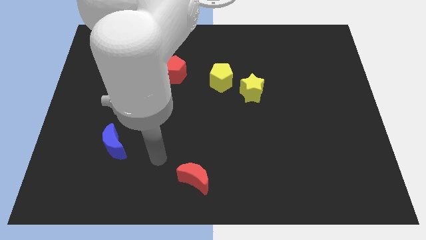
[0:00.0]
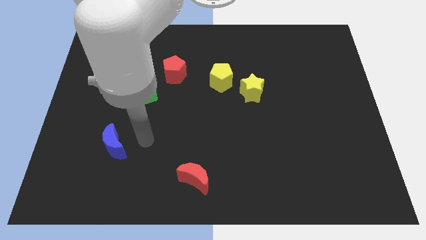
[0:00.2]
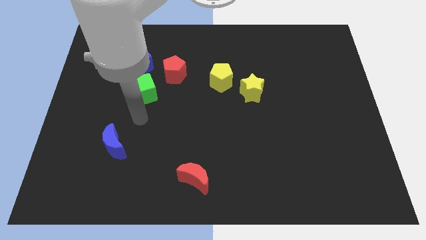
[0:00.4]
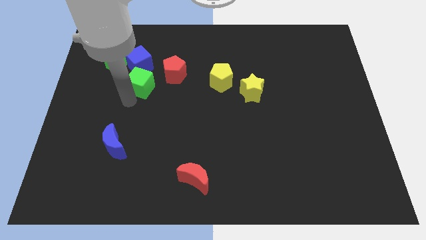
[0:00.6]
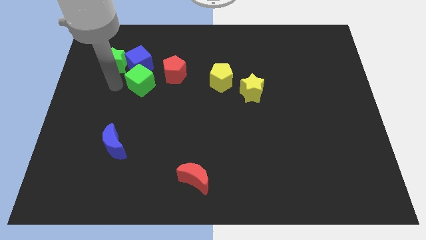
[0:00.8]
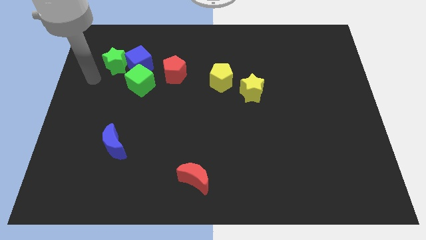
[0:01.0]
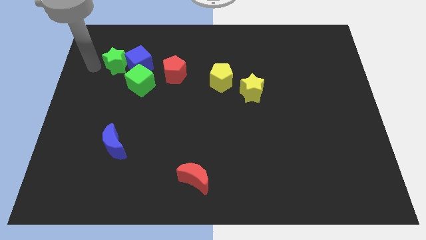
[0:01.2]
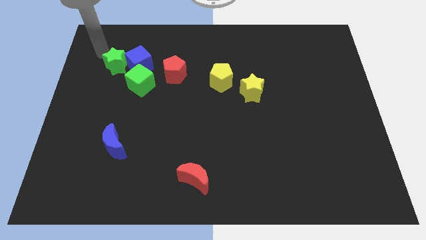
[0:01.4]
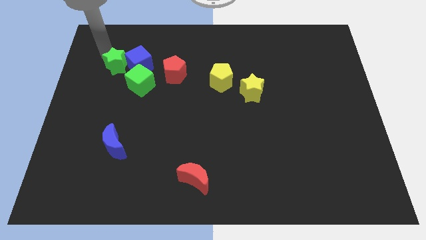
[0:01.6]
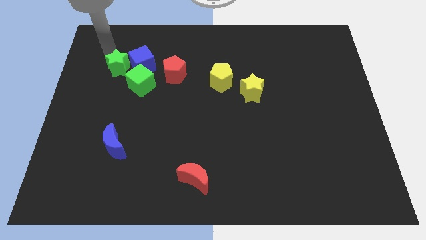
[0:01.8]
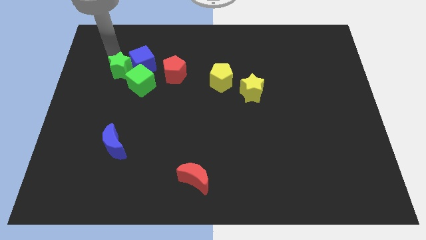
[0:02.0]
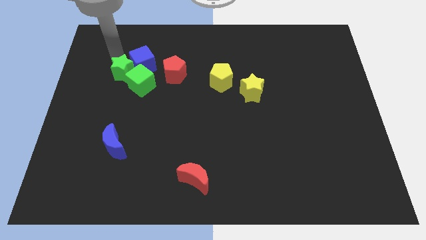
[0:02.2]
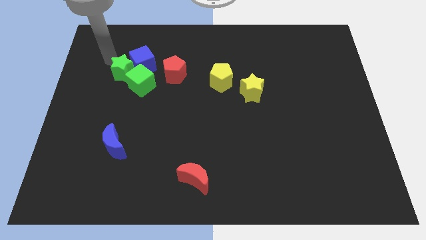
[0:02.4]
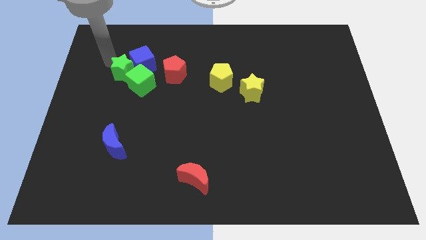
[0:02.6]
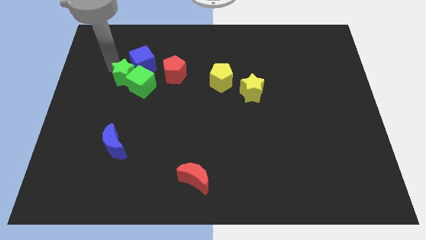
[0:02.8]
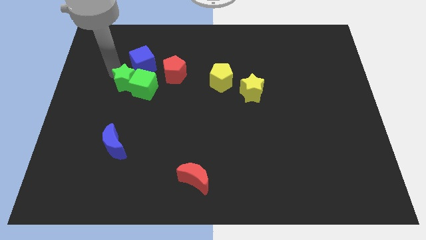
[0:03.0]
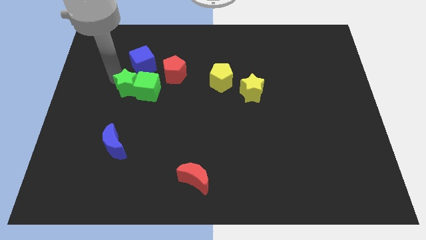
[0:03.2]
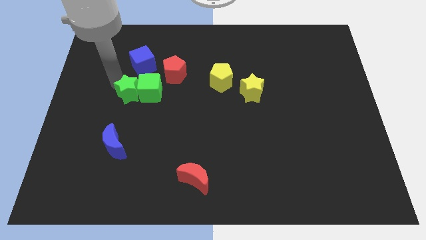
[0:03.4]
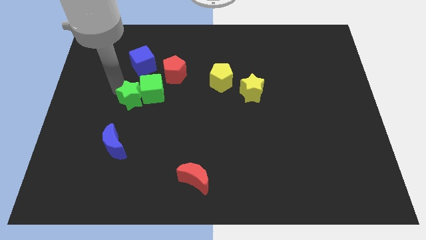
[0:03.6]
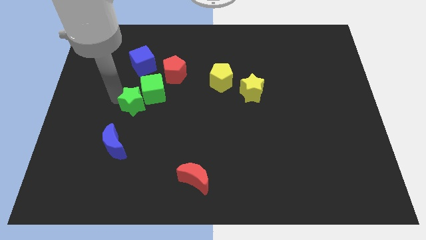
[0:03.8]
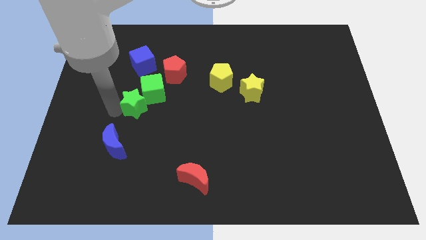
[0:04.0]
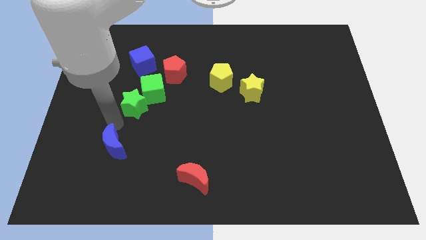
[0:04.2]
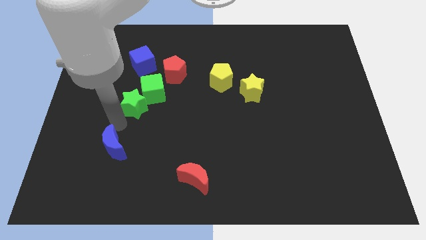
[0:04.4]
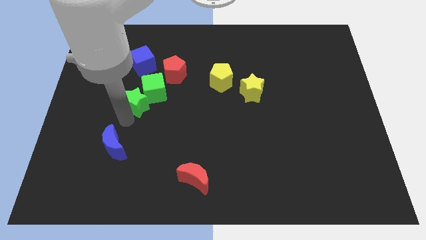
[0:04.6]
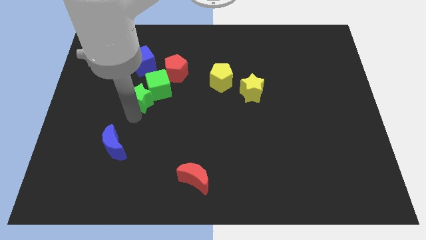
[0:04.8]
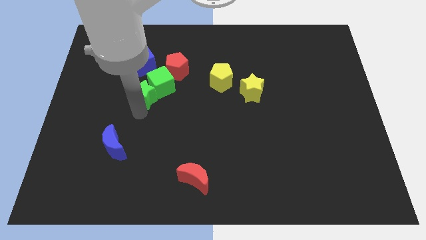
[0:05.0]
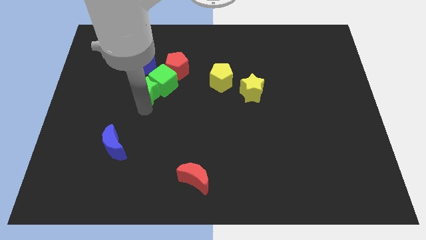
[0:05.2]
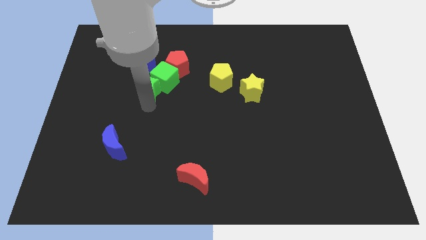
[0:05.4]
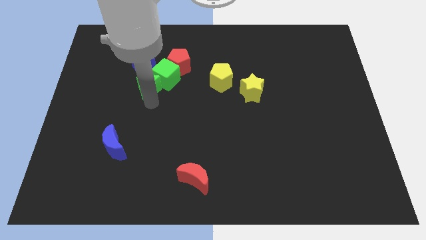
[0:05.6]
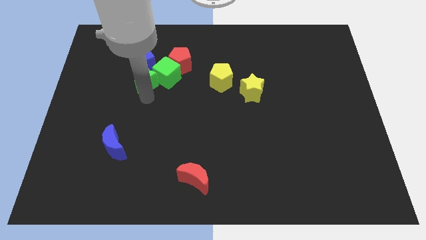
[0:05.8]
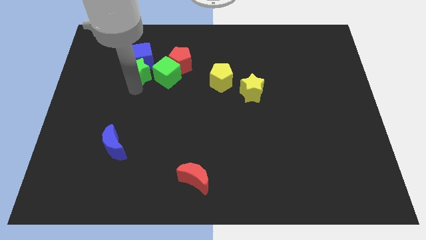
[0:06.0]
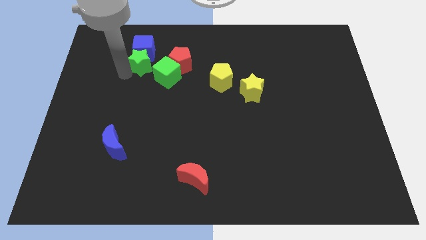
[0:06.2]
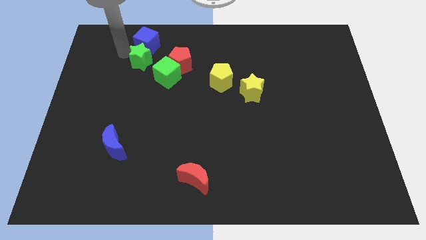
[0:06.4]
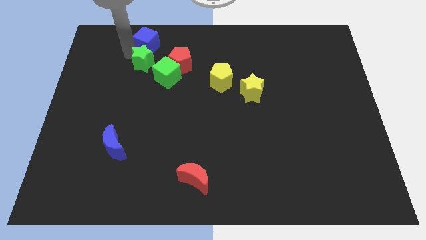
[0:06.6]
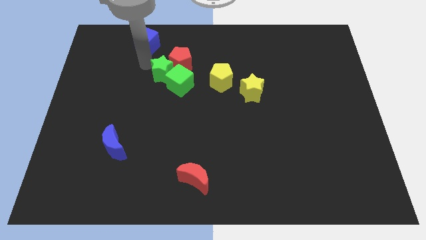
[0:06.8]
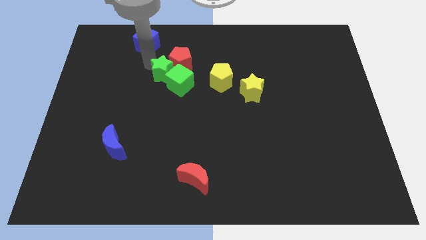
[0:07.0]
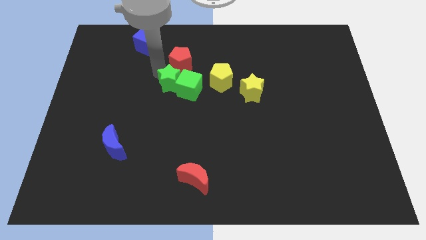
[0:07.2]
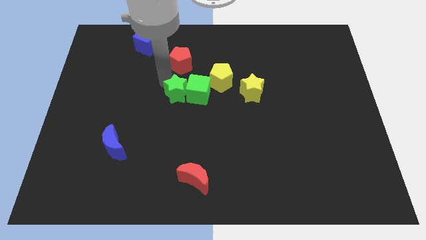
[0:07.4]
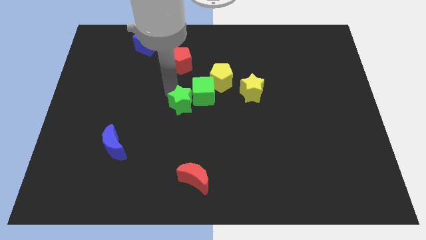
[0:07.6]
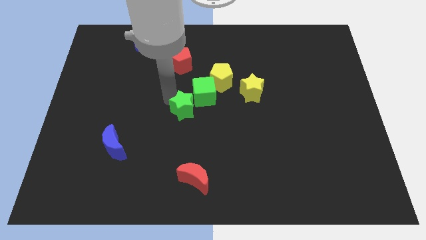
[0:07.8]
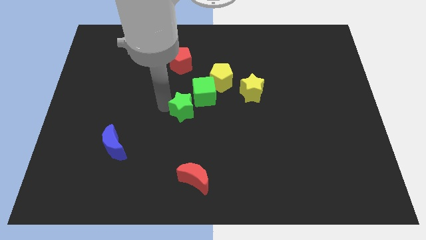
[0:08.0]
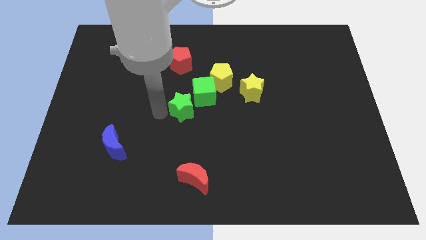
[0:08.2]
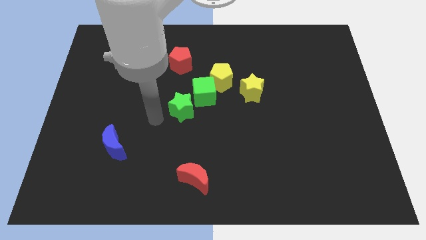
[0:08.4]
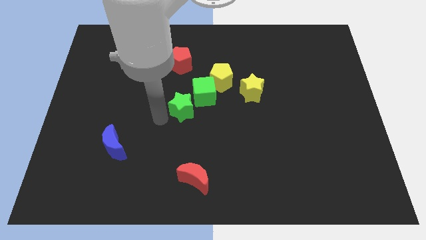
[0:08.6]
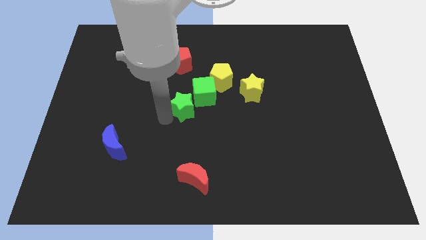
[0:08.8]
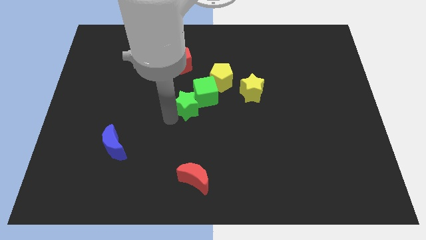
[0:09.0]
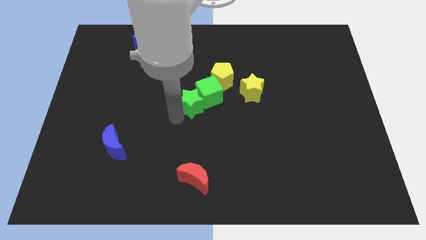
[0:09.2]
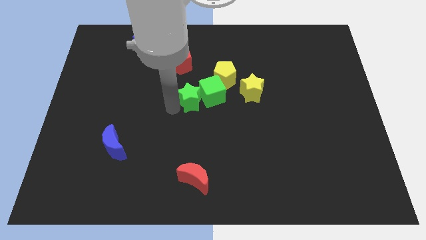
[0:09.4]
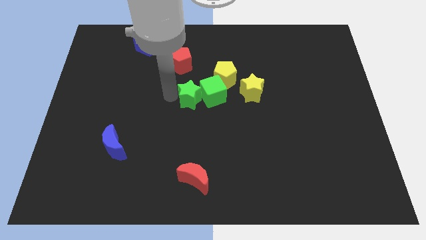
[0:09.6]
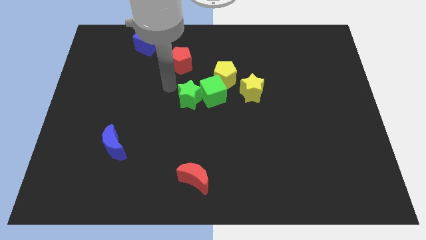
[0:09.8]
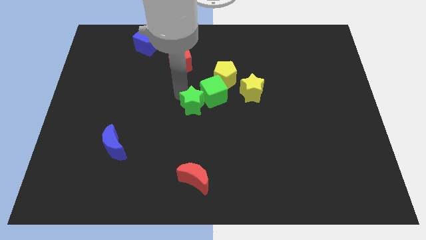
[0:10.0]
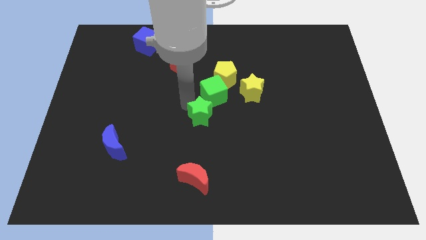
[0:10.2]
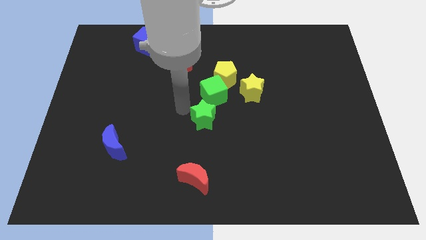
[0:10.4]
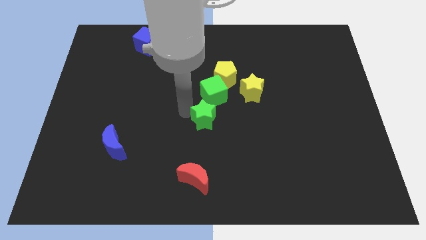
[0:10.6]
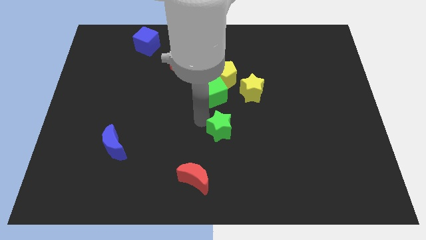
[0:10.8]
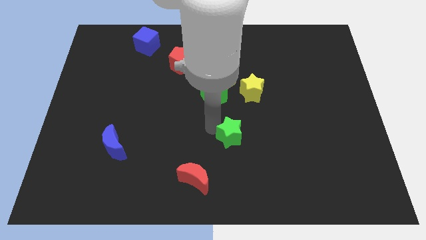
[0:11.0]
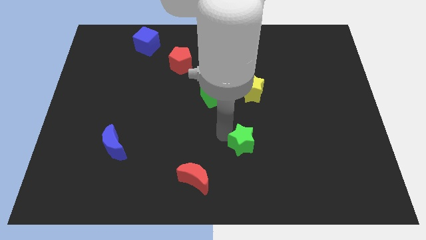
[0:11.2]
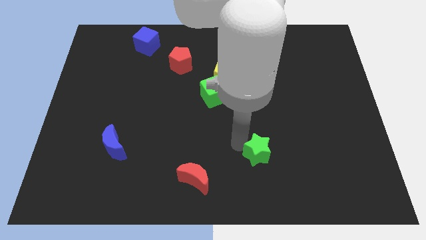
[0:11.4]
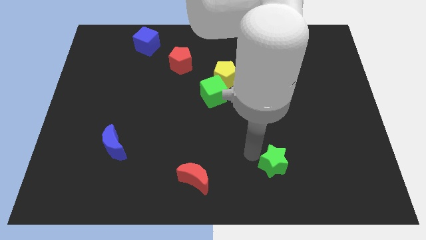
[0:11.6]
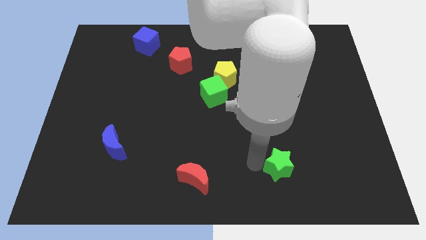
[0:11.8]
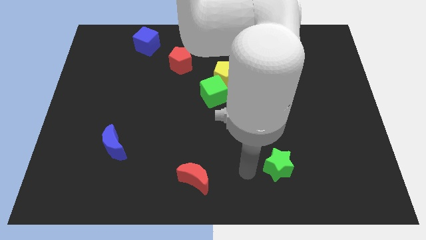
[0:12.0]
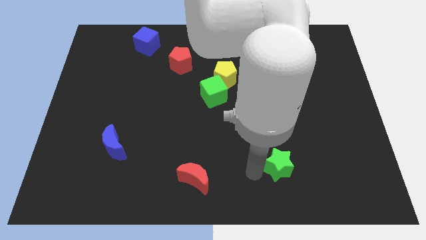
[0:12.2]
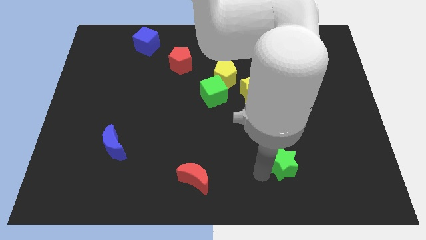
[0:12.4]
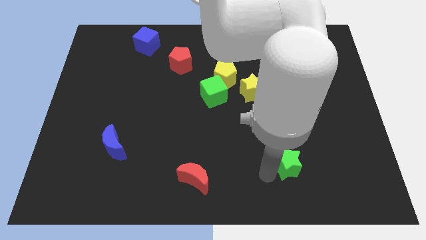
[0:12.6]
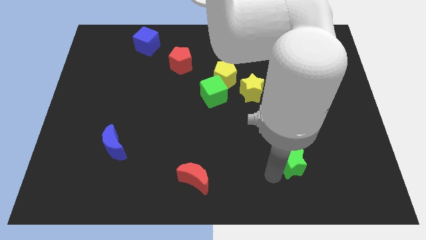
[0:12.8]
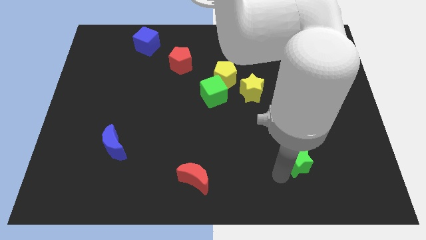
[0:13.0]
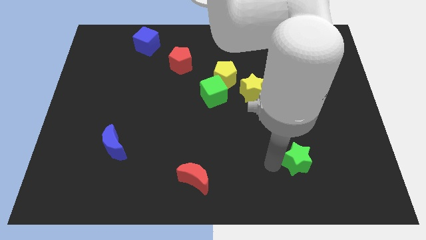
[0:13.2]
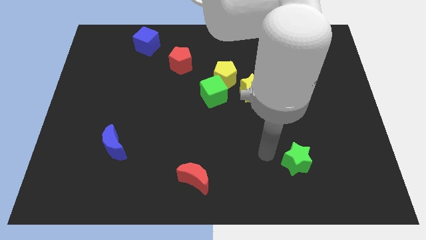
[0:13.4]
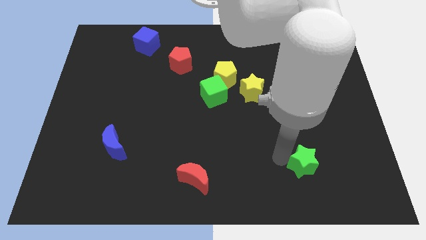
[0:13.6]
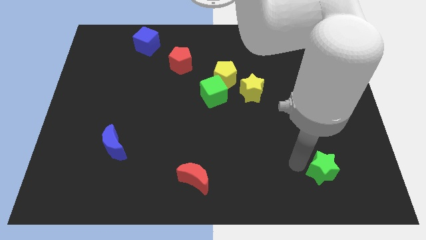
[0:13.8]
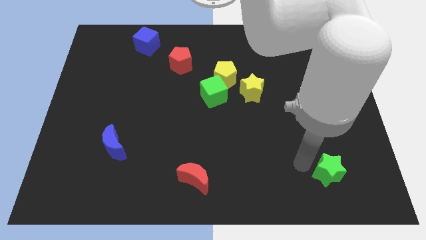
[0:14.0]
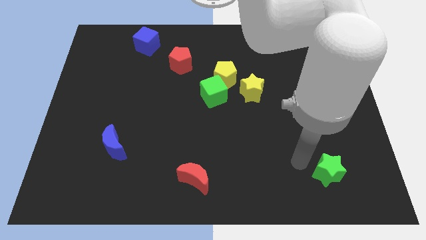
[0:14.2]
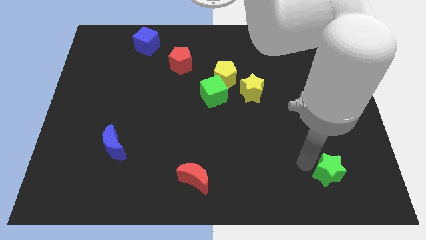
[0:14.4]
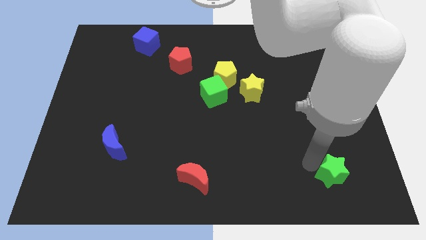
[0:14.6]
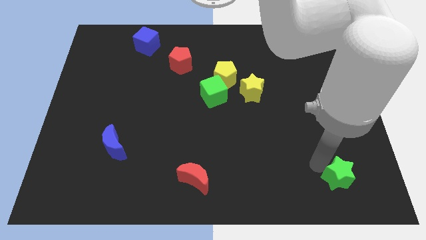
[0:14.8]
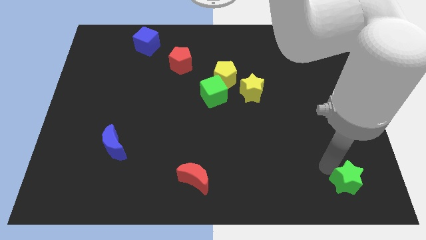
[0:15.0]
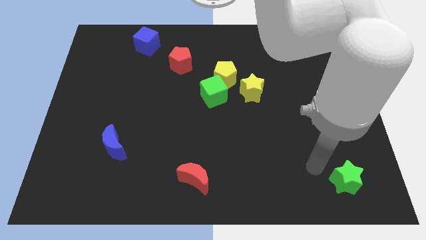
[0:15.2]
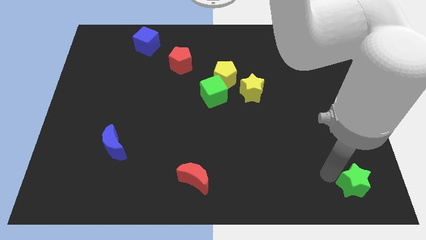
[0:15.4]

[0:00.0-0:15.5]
slide the green star to the lower right corner
